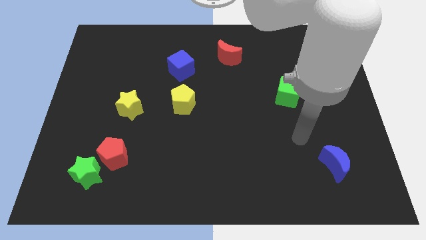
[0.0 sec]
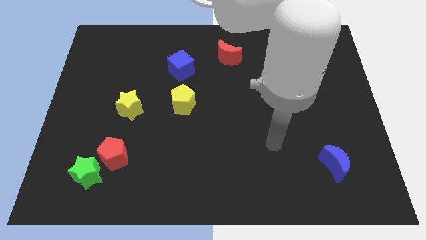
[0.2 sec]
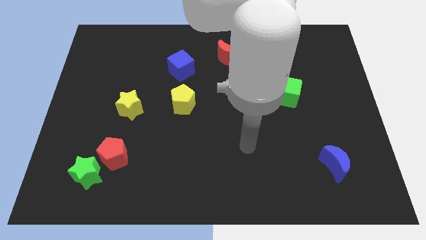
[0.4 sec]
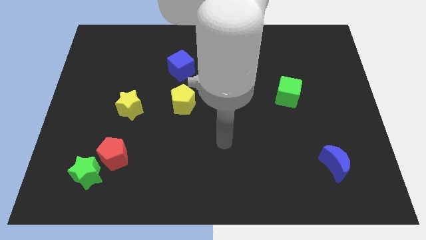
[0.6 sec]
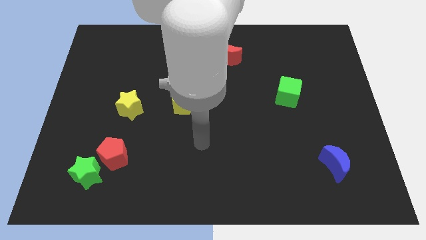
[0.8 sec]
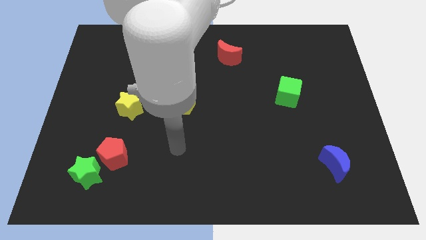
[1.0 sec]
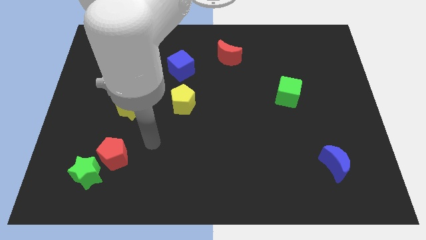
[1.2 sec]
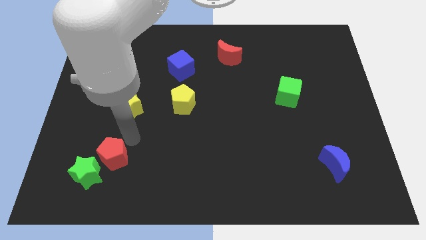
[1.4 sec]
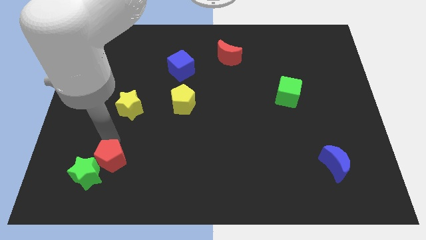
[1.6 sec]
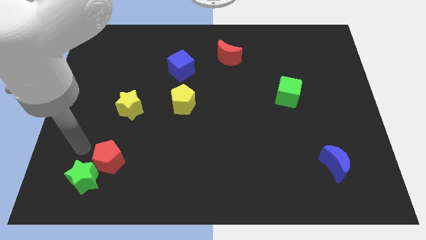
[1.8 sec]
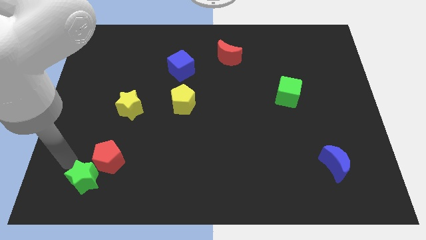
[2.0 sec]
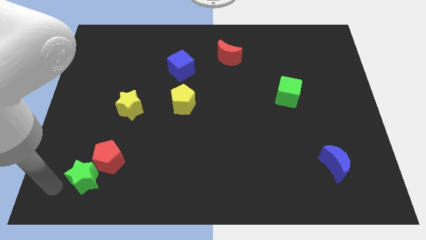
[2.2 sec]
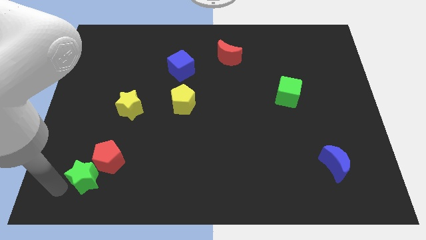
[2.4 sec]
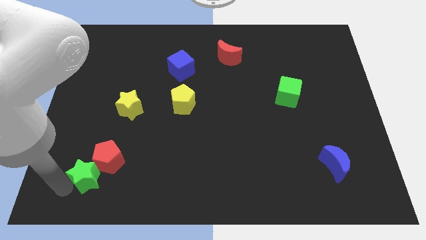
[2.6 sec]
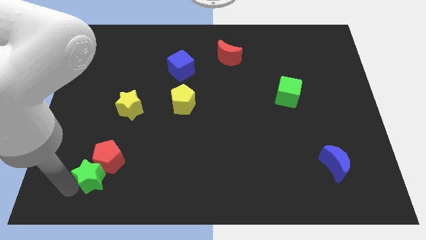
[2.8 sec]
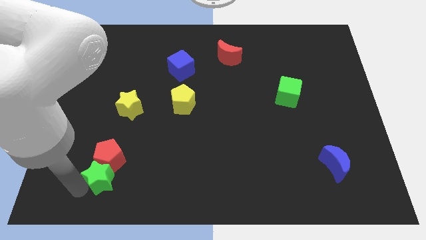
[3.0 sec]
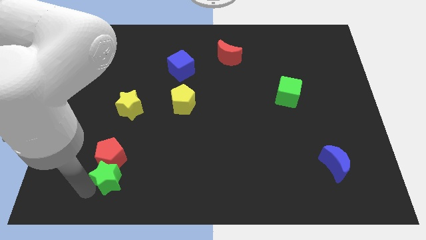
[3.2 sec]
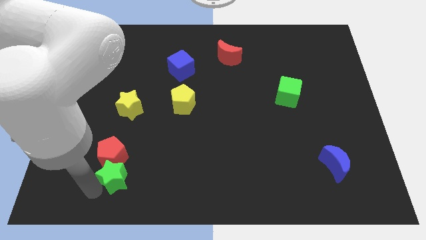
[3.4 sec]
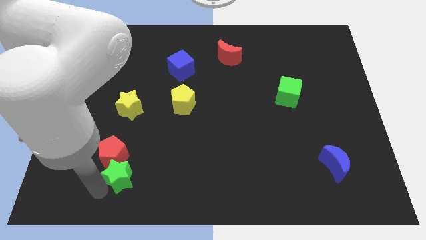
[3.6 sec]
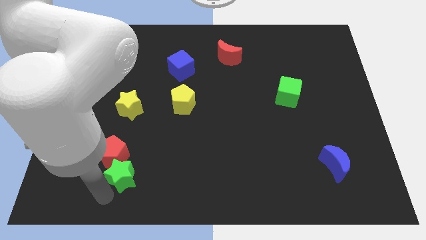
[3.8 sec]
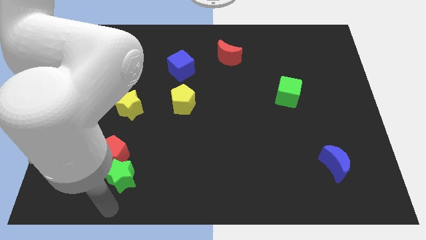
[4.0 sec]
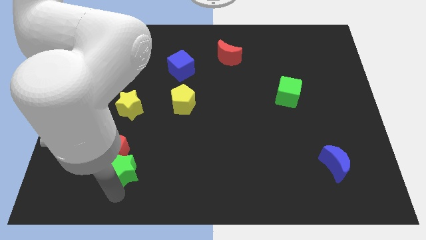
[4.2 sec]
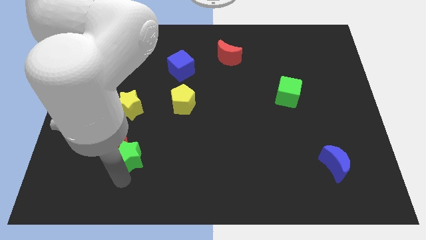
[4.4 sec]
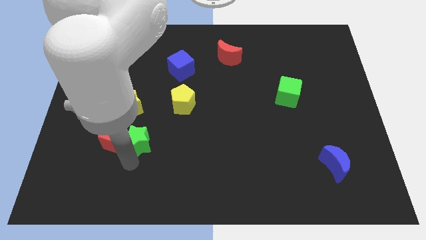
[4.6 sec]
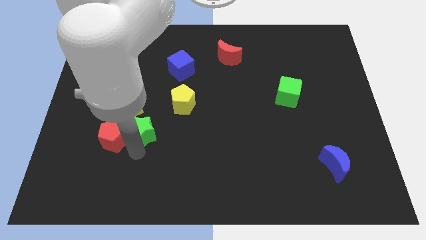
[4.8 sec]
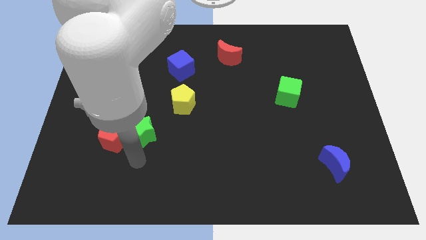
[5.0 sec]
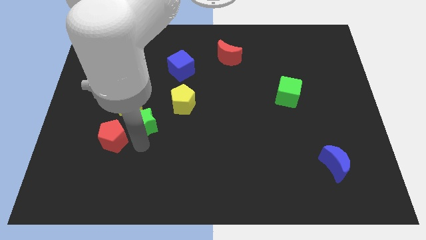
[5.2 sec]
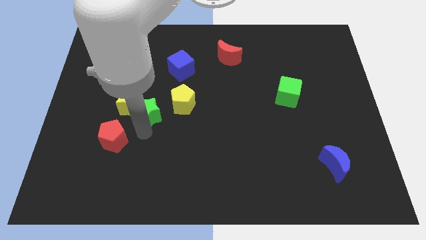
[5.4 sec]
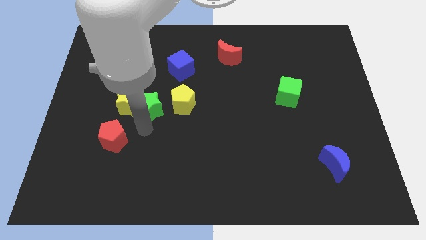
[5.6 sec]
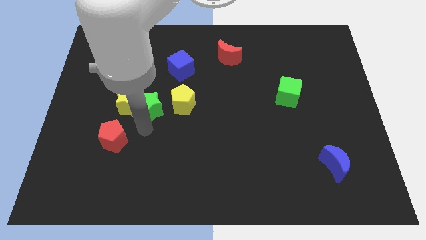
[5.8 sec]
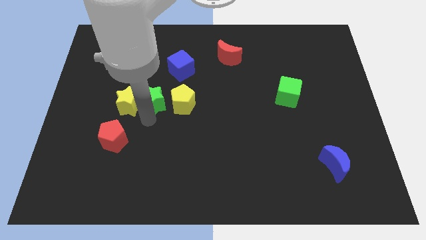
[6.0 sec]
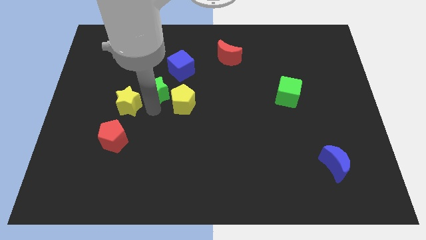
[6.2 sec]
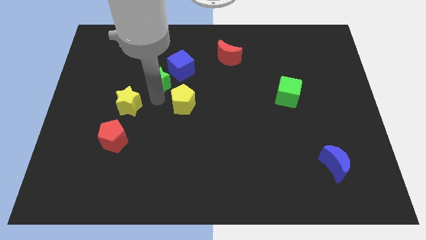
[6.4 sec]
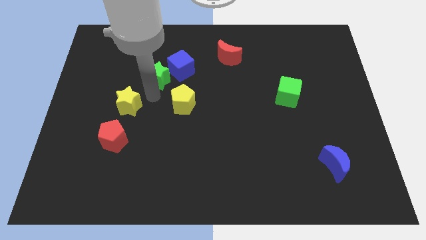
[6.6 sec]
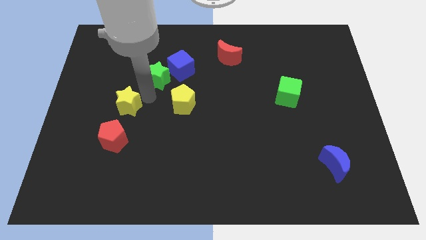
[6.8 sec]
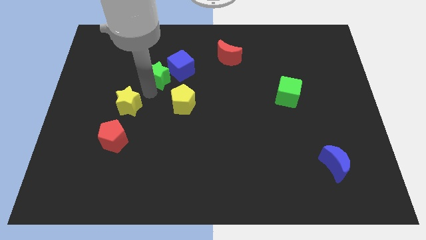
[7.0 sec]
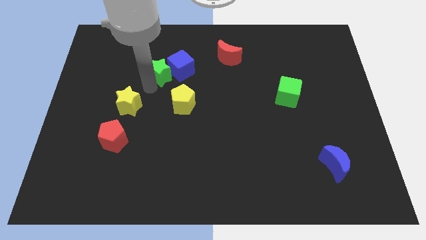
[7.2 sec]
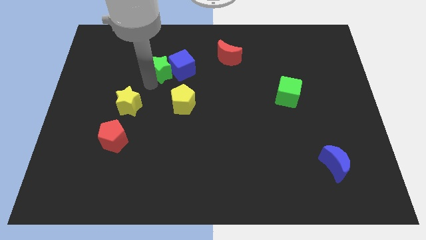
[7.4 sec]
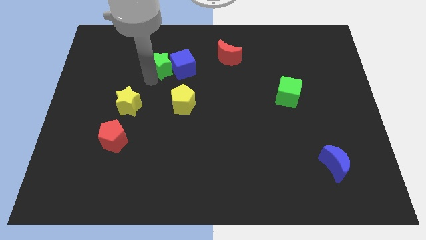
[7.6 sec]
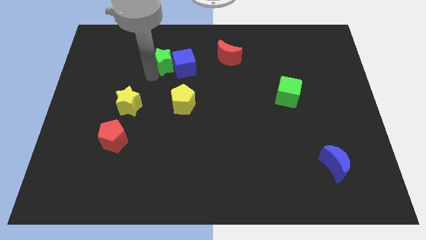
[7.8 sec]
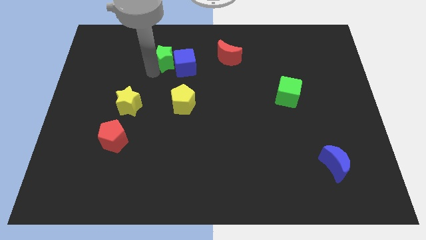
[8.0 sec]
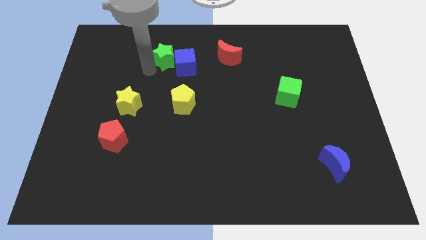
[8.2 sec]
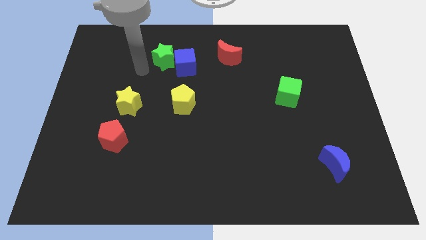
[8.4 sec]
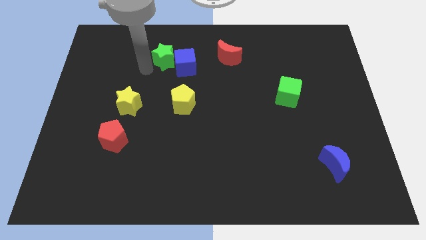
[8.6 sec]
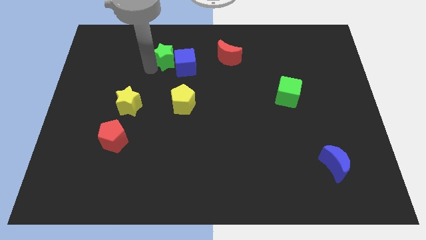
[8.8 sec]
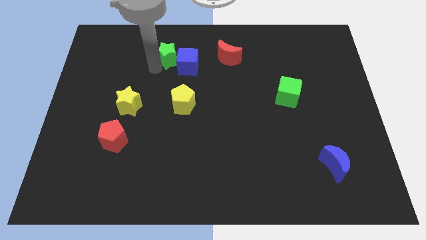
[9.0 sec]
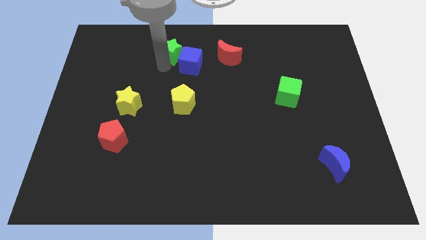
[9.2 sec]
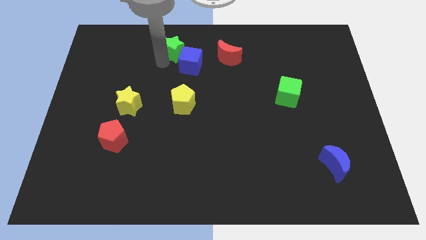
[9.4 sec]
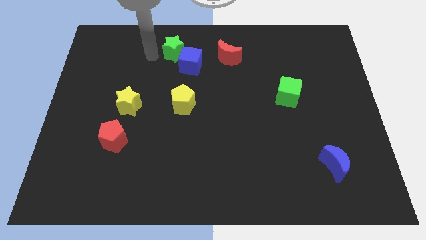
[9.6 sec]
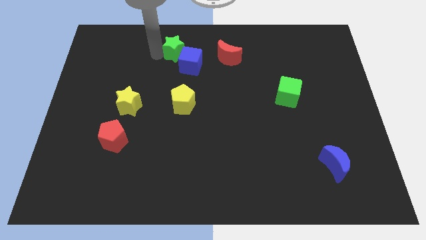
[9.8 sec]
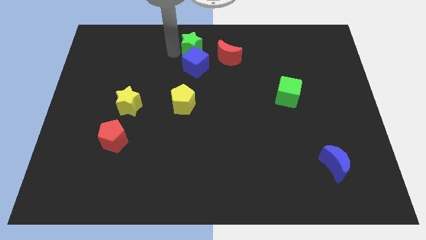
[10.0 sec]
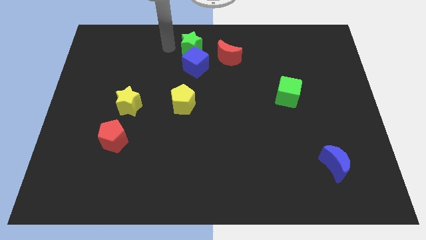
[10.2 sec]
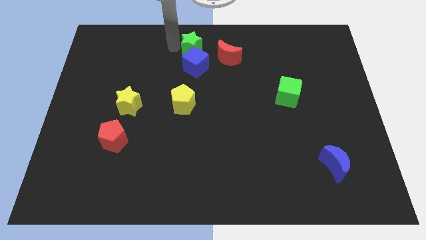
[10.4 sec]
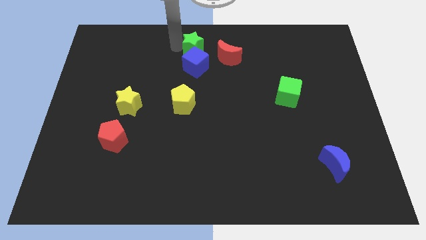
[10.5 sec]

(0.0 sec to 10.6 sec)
put the green star to the top right of the blue cube

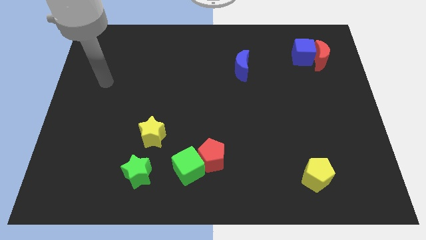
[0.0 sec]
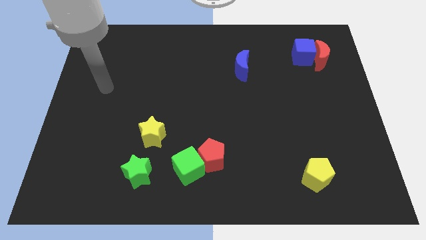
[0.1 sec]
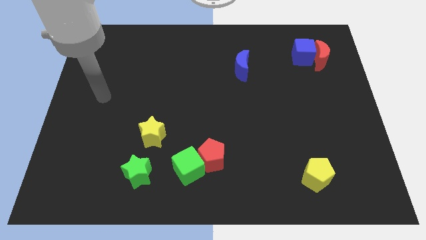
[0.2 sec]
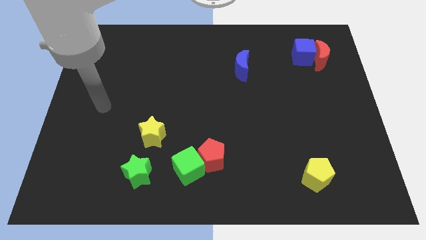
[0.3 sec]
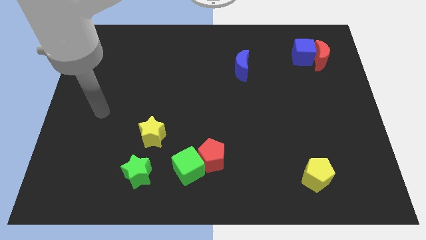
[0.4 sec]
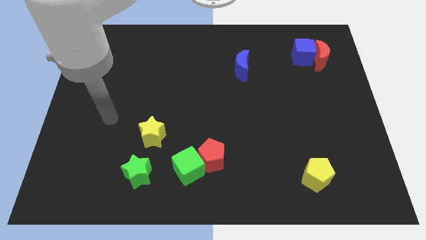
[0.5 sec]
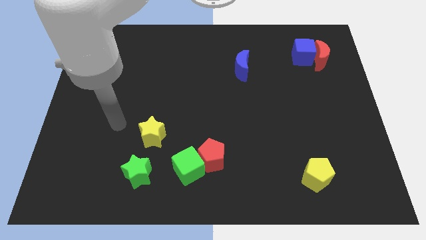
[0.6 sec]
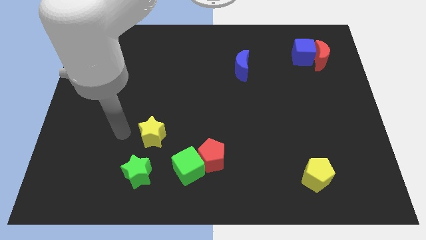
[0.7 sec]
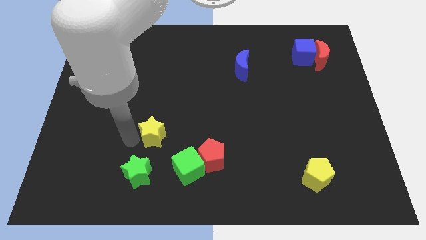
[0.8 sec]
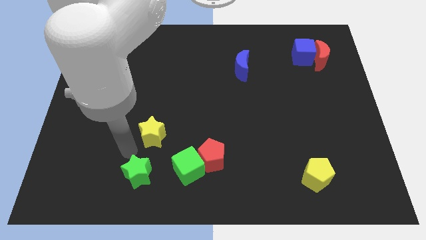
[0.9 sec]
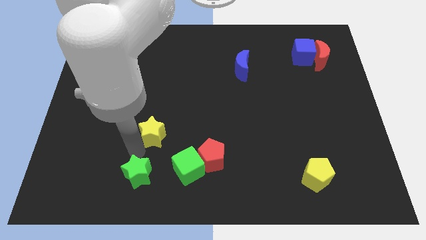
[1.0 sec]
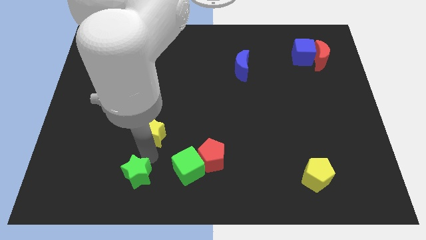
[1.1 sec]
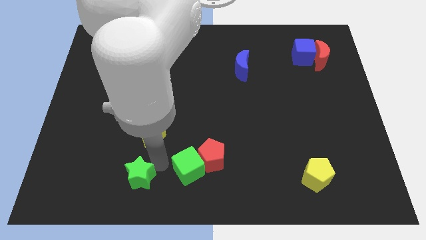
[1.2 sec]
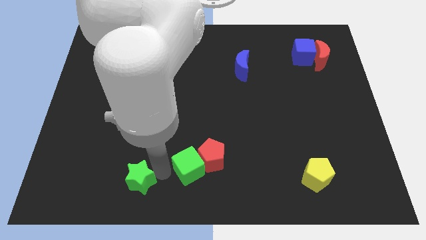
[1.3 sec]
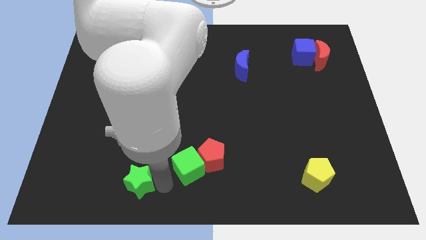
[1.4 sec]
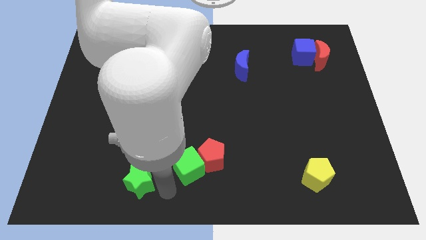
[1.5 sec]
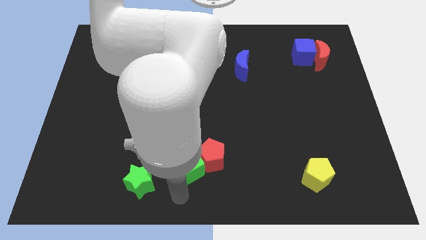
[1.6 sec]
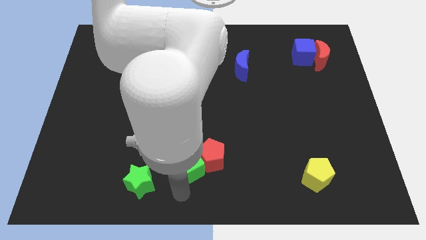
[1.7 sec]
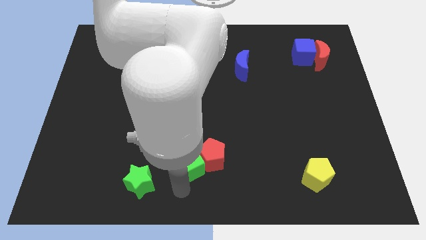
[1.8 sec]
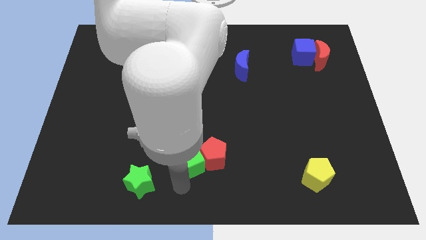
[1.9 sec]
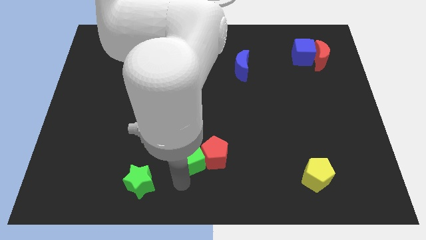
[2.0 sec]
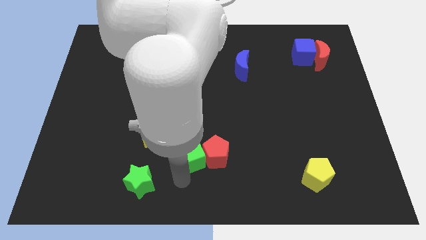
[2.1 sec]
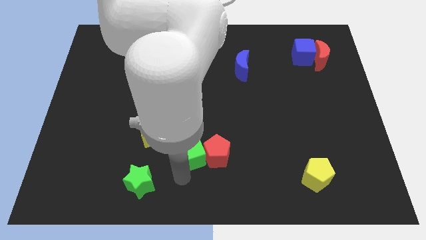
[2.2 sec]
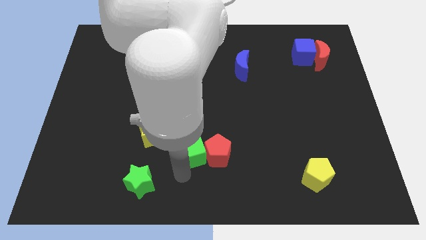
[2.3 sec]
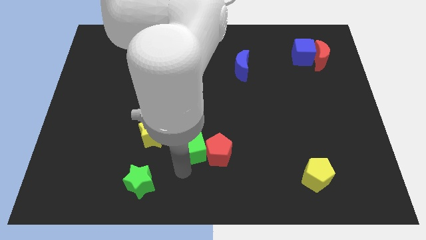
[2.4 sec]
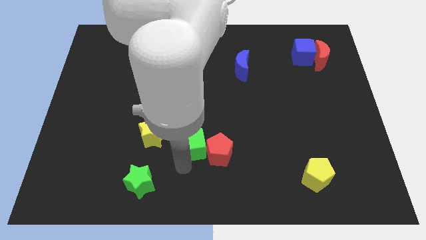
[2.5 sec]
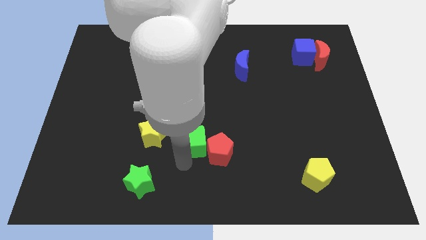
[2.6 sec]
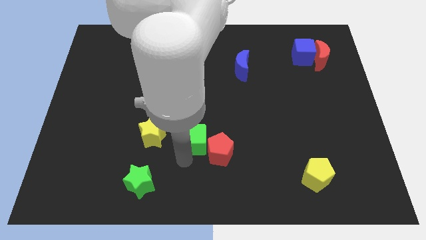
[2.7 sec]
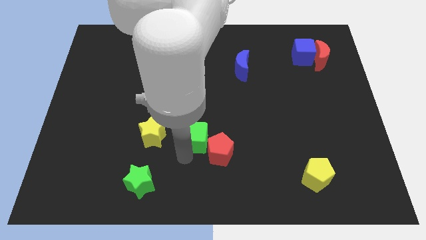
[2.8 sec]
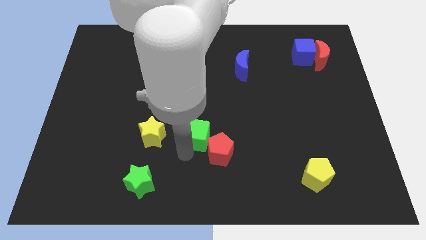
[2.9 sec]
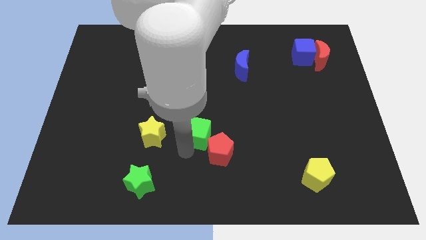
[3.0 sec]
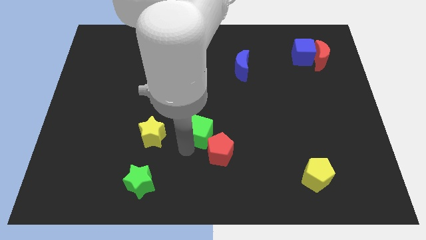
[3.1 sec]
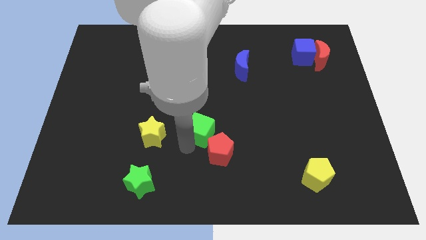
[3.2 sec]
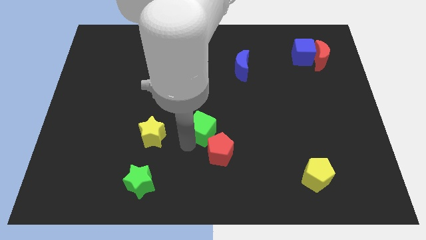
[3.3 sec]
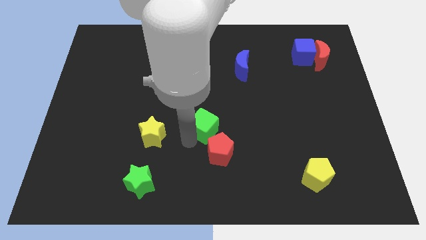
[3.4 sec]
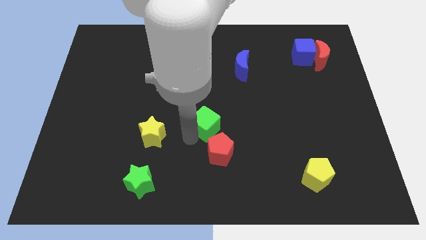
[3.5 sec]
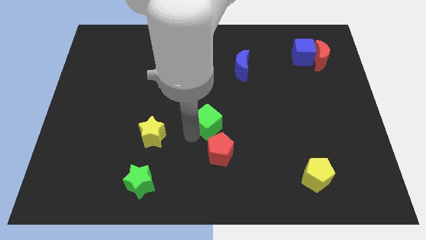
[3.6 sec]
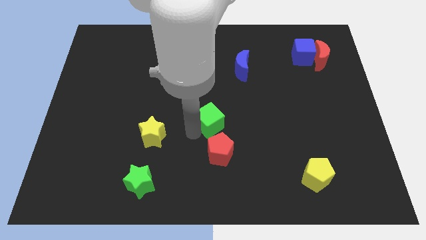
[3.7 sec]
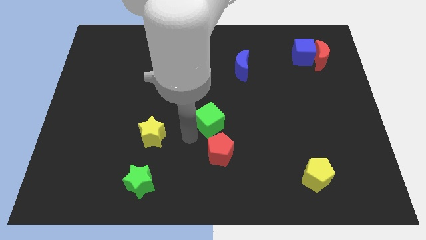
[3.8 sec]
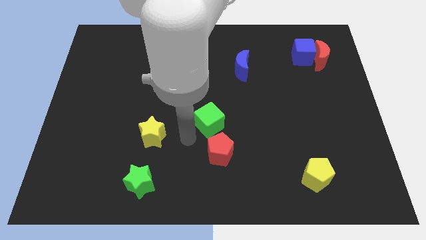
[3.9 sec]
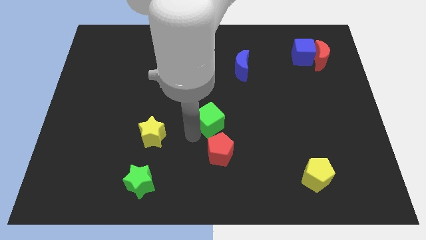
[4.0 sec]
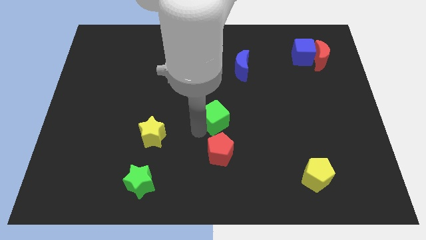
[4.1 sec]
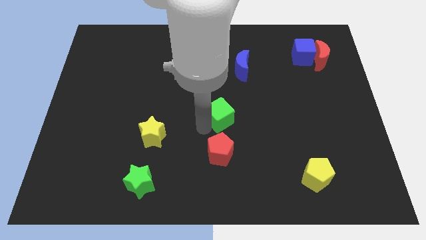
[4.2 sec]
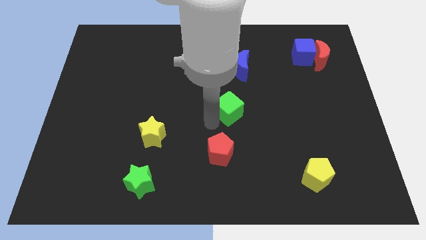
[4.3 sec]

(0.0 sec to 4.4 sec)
slide the green cube below the blue moon
